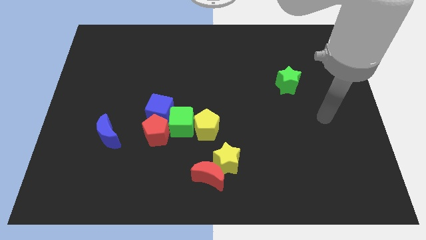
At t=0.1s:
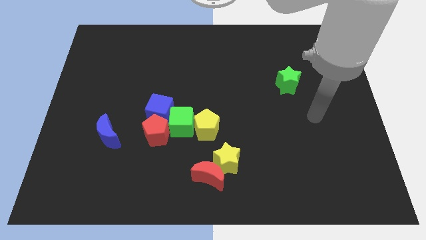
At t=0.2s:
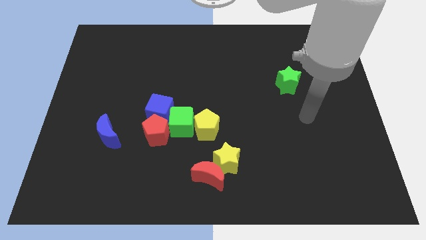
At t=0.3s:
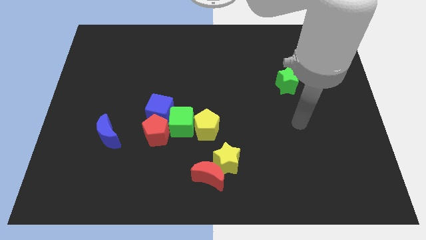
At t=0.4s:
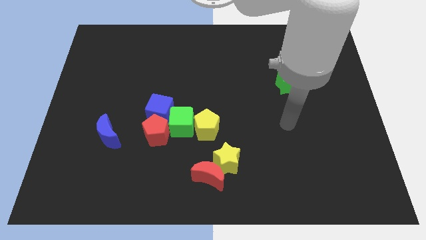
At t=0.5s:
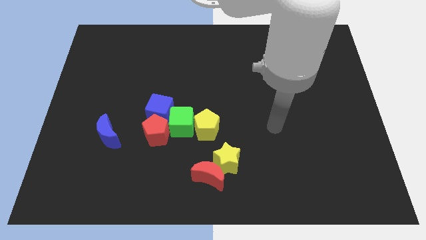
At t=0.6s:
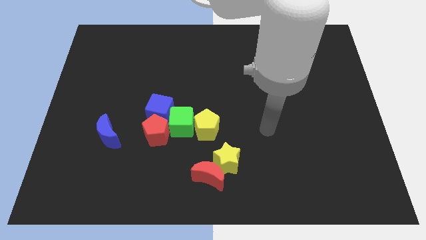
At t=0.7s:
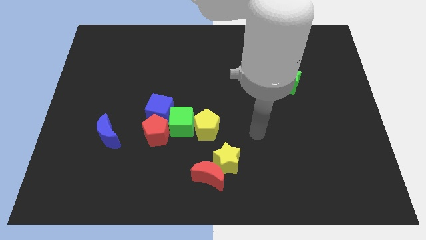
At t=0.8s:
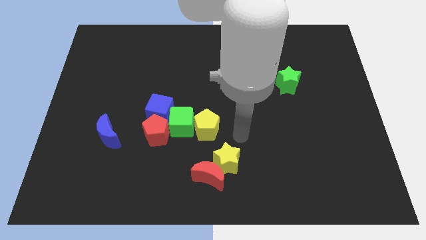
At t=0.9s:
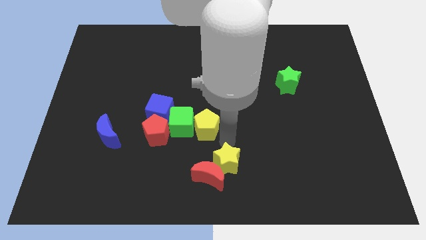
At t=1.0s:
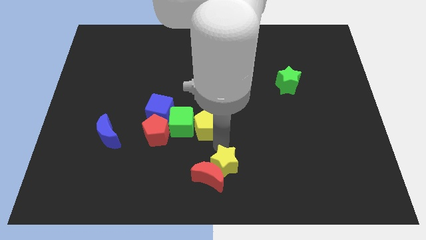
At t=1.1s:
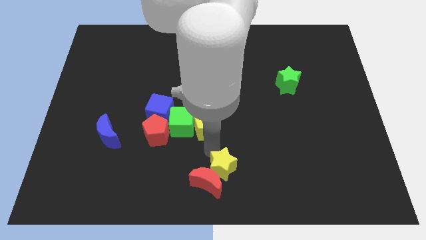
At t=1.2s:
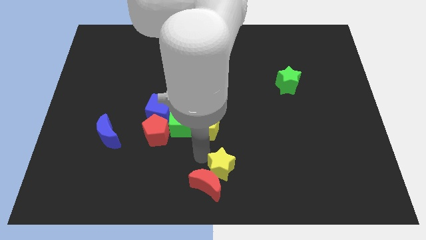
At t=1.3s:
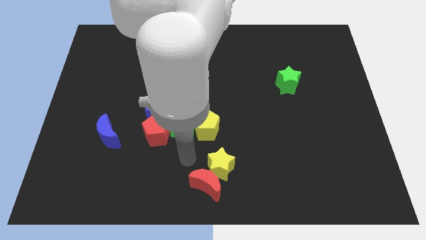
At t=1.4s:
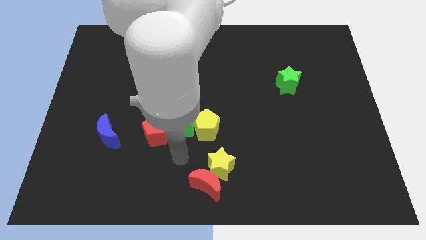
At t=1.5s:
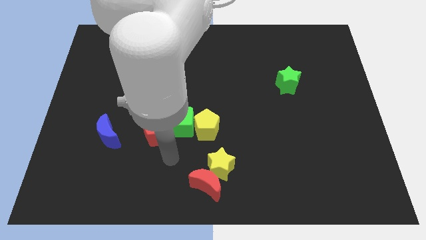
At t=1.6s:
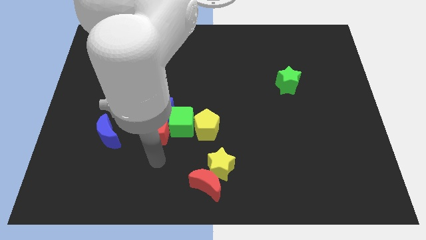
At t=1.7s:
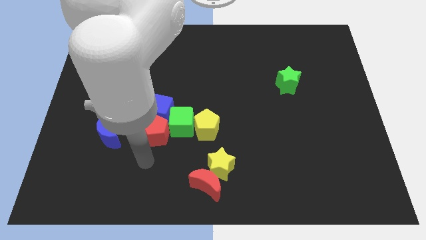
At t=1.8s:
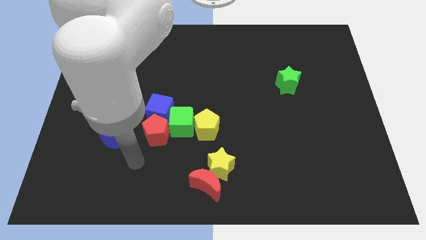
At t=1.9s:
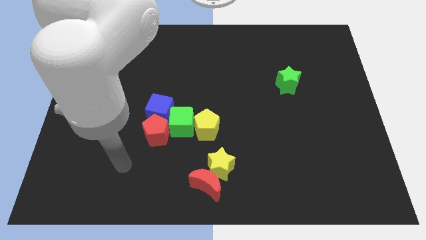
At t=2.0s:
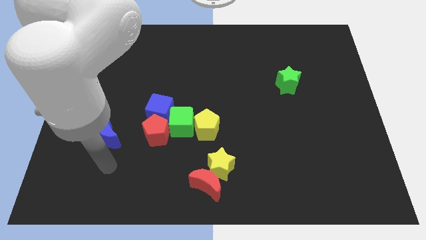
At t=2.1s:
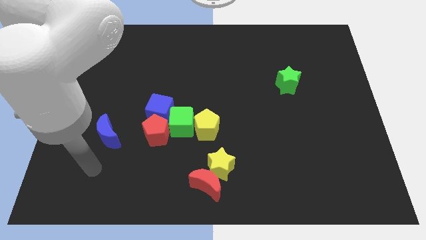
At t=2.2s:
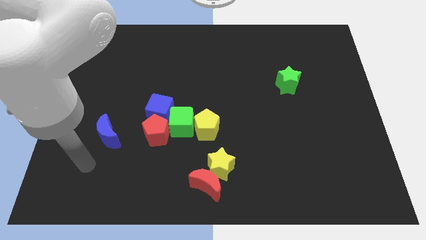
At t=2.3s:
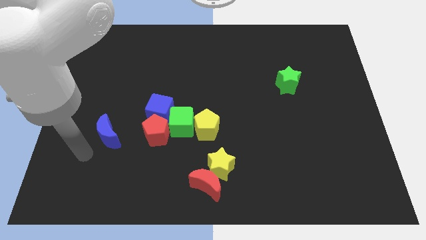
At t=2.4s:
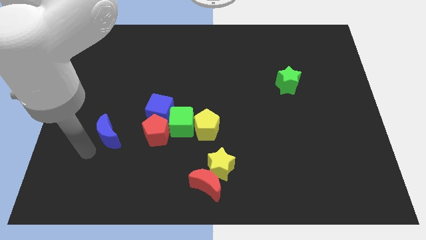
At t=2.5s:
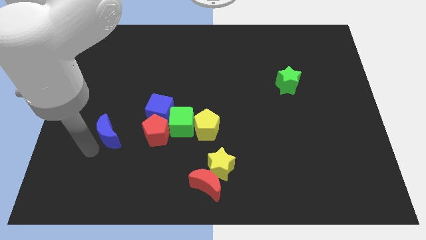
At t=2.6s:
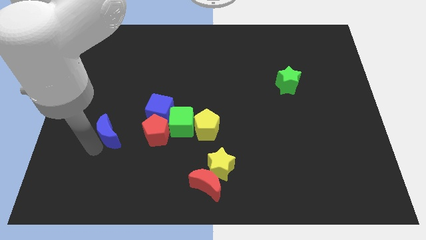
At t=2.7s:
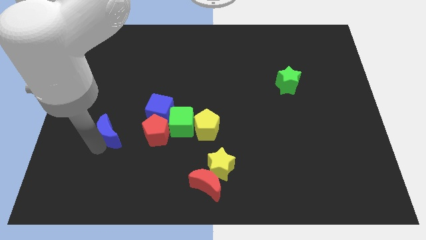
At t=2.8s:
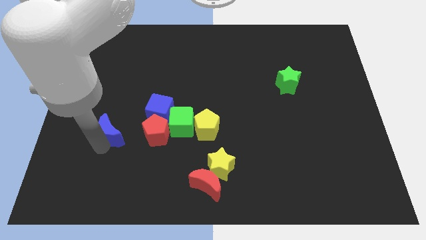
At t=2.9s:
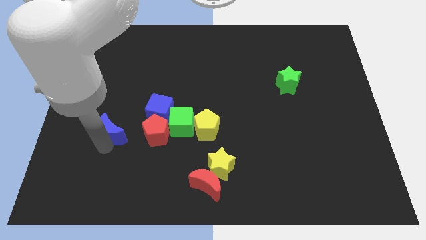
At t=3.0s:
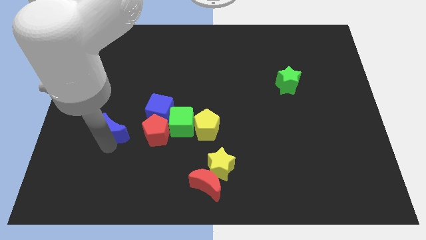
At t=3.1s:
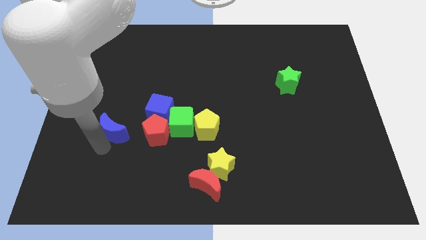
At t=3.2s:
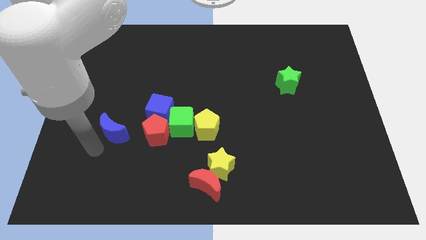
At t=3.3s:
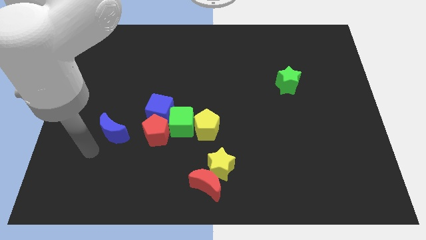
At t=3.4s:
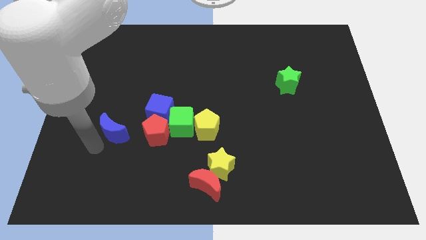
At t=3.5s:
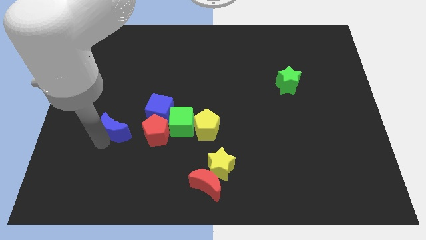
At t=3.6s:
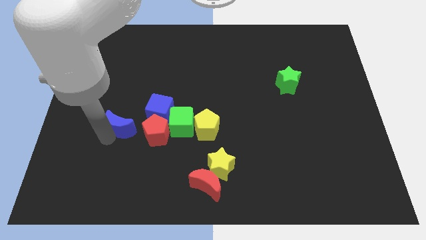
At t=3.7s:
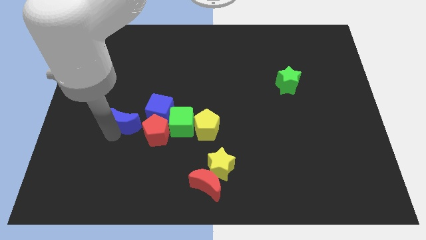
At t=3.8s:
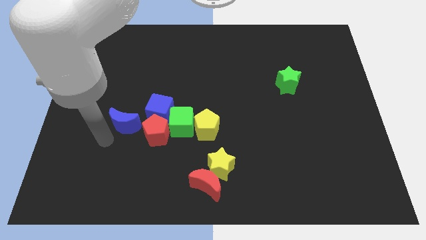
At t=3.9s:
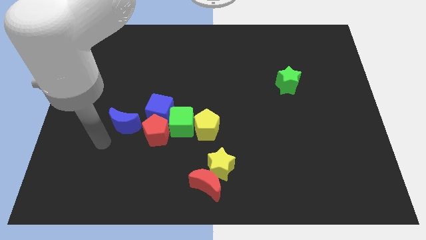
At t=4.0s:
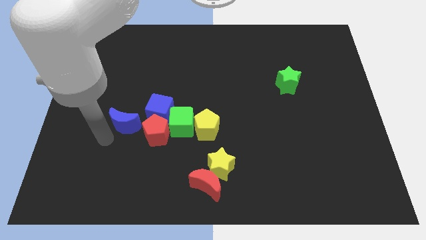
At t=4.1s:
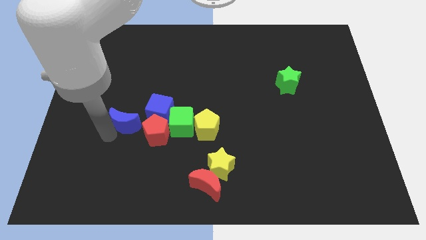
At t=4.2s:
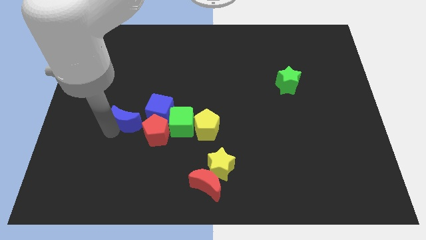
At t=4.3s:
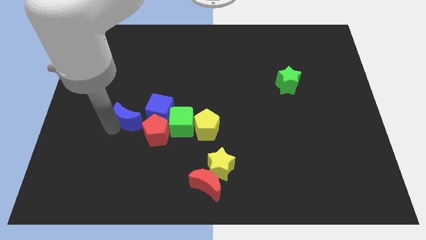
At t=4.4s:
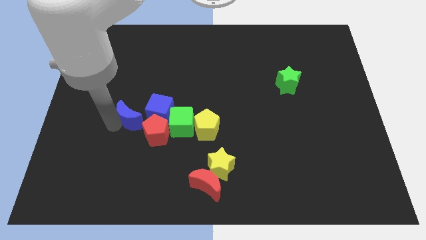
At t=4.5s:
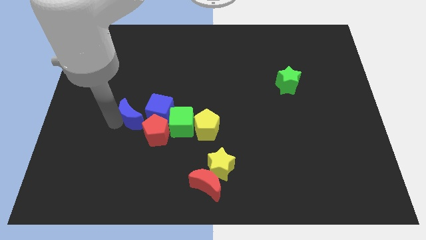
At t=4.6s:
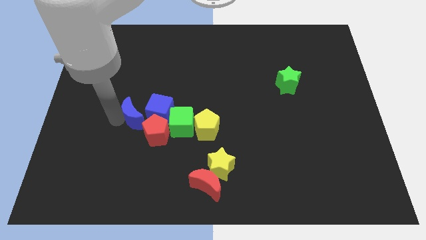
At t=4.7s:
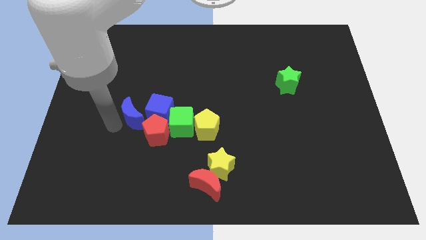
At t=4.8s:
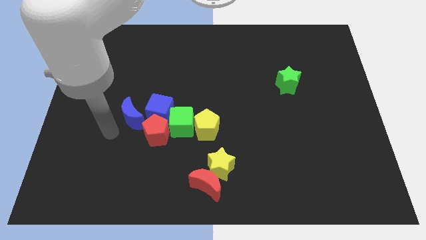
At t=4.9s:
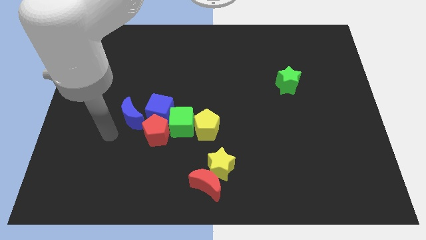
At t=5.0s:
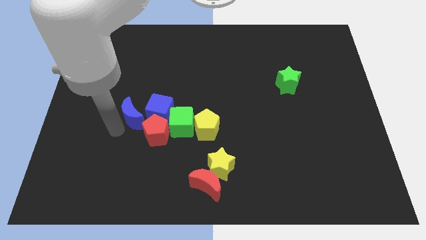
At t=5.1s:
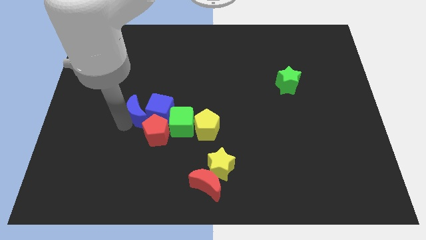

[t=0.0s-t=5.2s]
put the blue moon to the top side of the red pentagon

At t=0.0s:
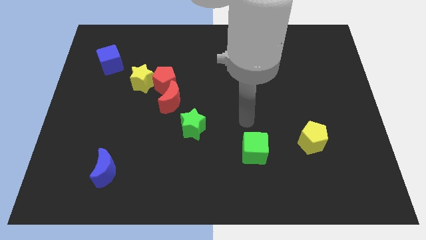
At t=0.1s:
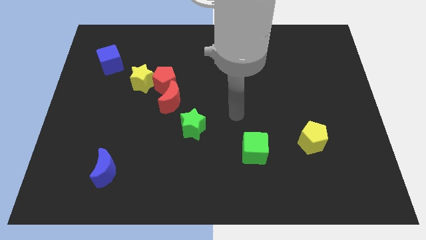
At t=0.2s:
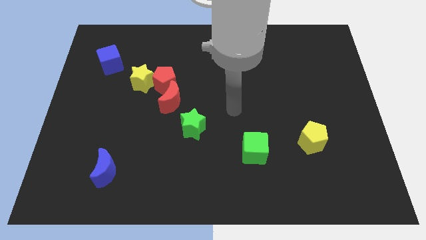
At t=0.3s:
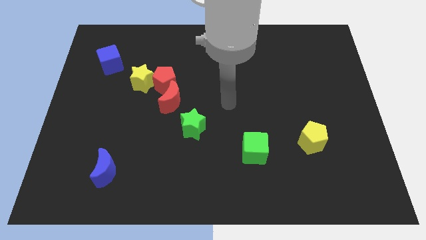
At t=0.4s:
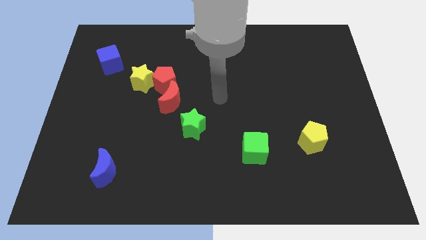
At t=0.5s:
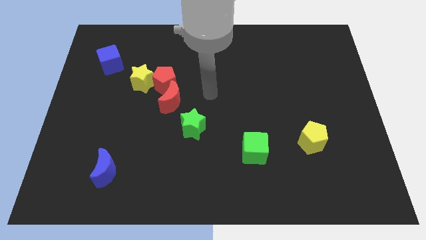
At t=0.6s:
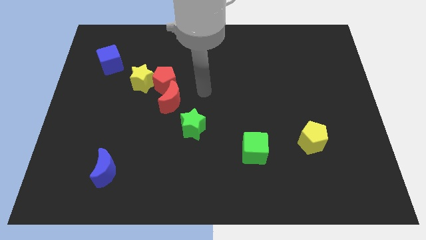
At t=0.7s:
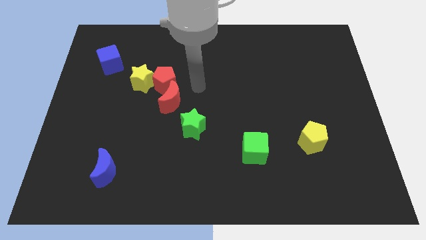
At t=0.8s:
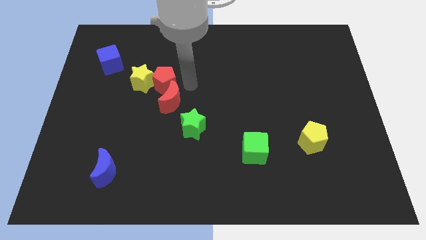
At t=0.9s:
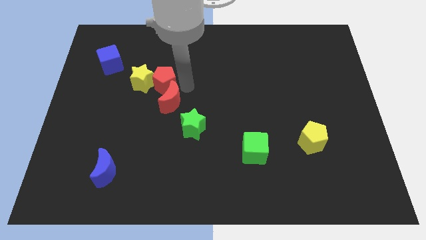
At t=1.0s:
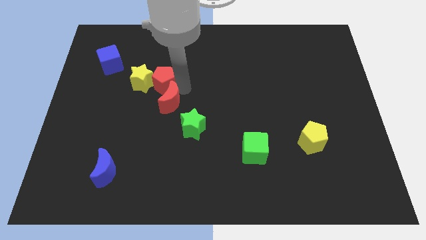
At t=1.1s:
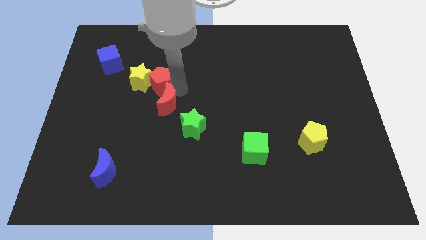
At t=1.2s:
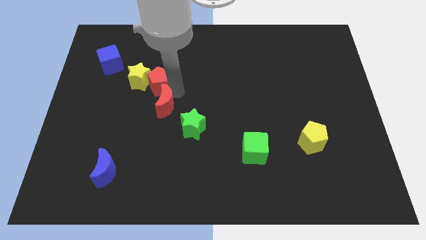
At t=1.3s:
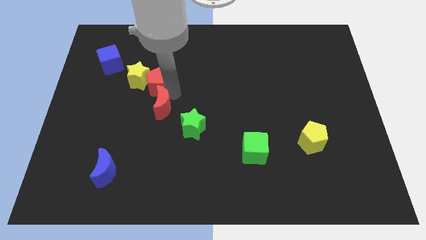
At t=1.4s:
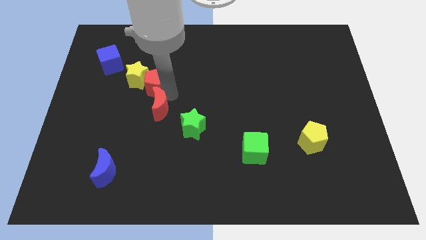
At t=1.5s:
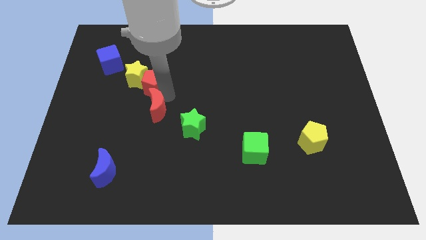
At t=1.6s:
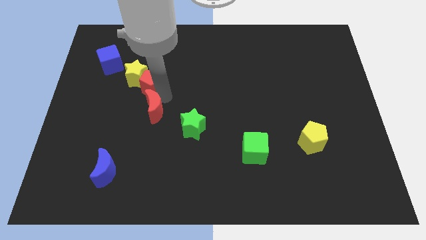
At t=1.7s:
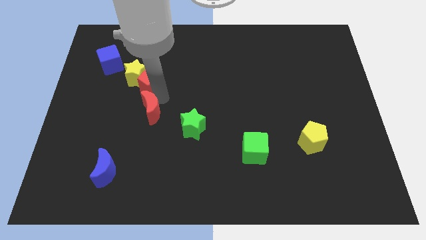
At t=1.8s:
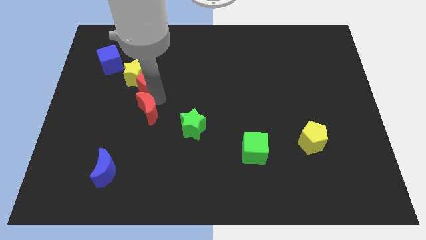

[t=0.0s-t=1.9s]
slide the red moon just left of the green star
